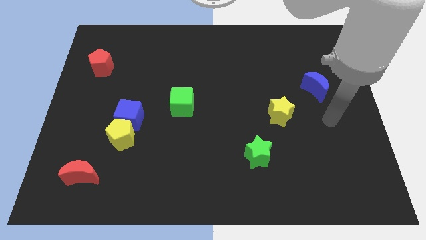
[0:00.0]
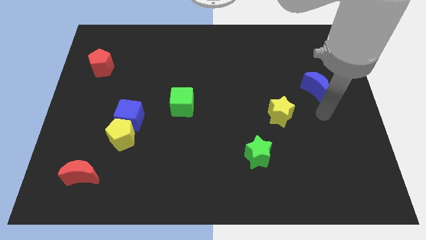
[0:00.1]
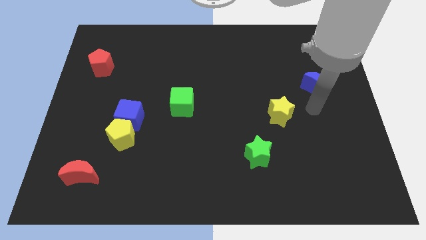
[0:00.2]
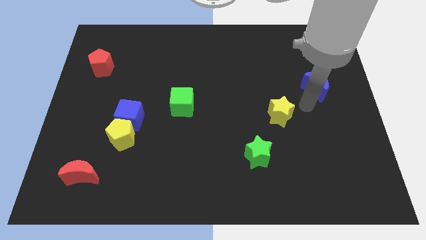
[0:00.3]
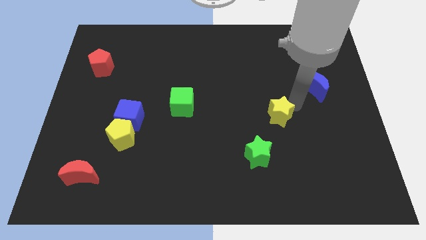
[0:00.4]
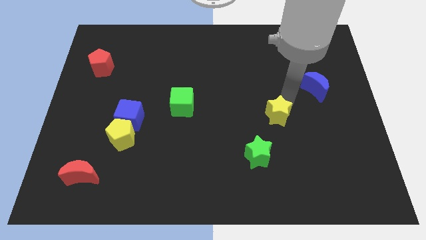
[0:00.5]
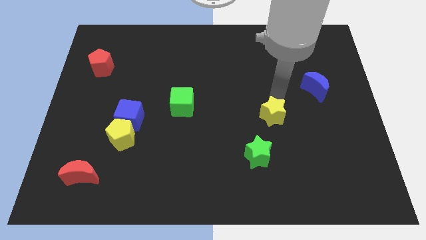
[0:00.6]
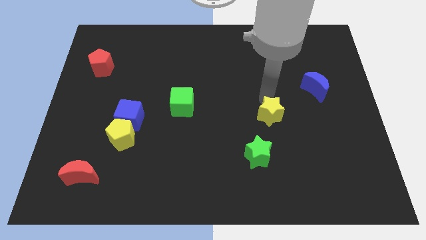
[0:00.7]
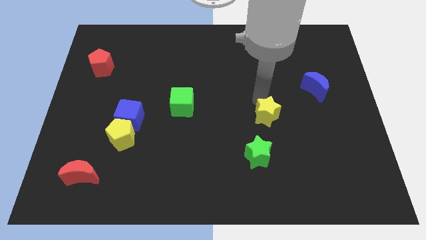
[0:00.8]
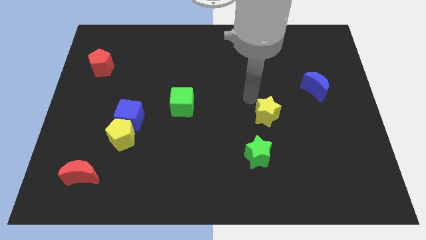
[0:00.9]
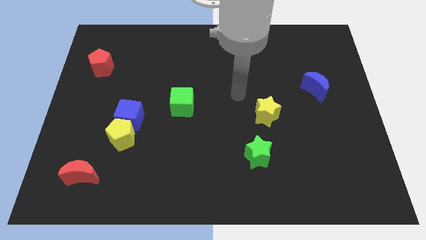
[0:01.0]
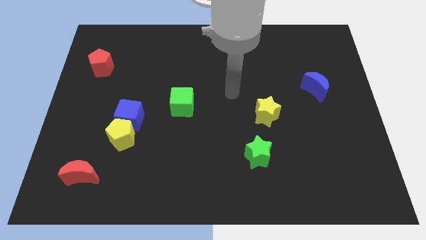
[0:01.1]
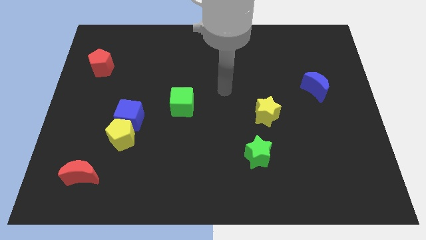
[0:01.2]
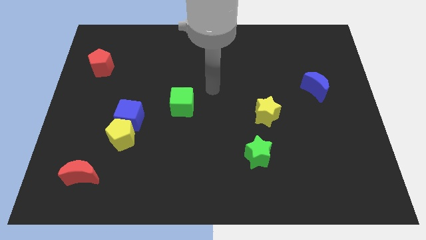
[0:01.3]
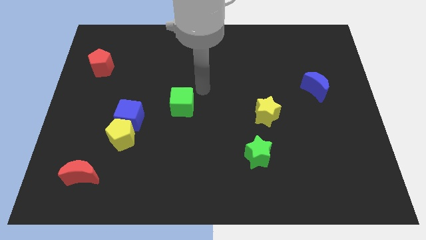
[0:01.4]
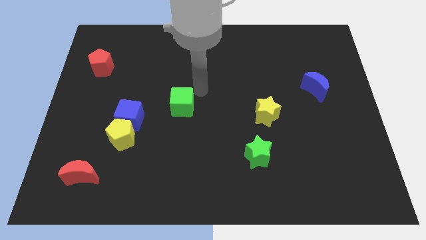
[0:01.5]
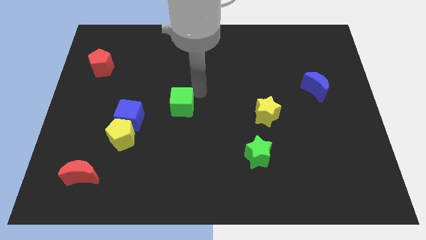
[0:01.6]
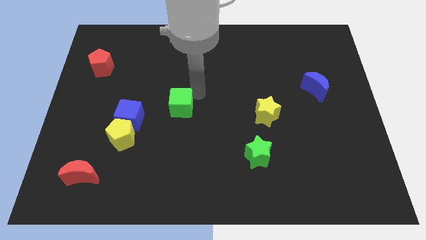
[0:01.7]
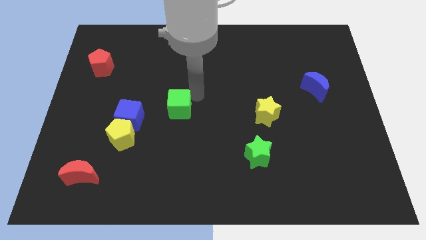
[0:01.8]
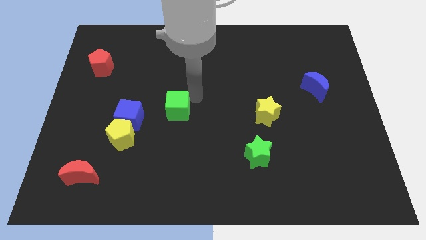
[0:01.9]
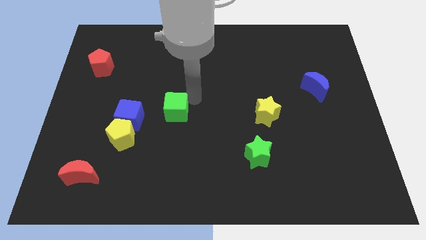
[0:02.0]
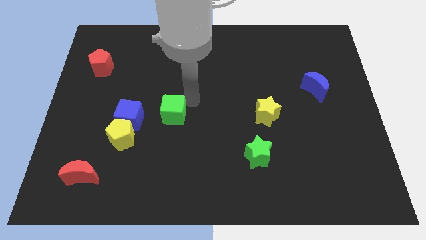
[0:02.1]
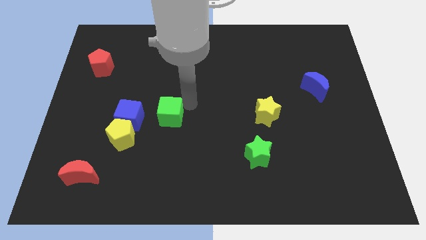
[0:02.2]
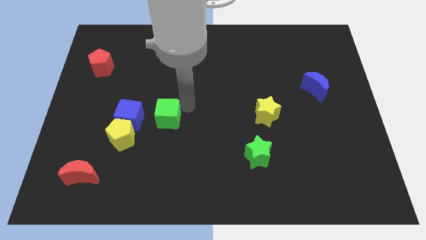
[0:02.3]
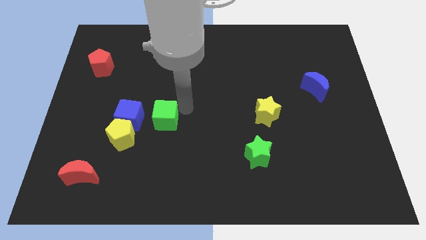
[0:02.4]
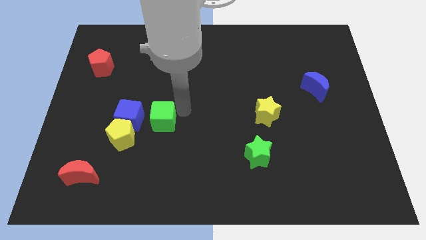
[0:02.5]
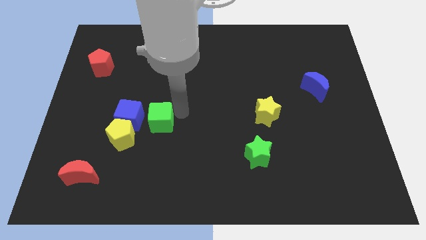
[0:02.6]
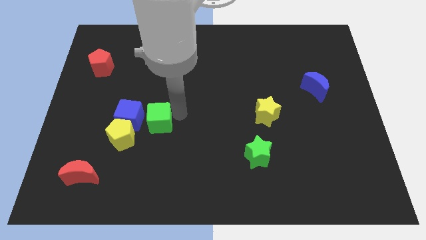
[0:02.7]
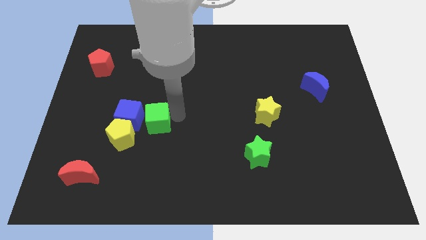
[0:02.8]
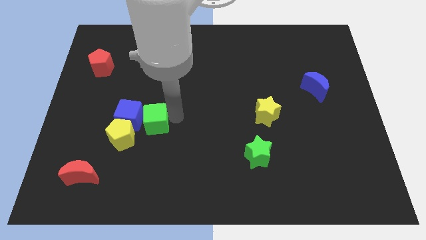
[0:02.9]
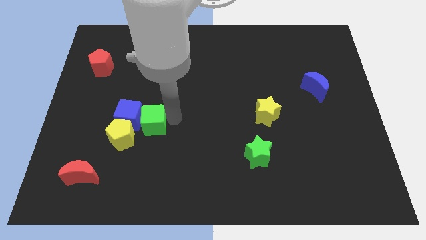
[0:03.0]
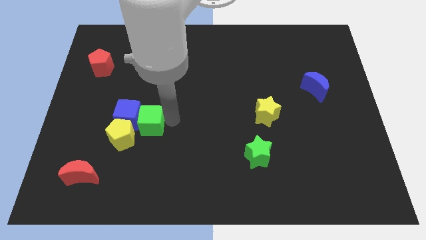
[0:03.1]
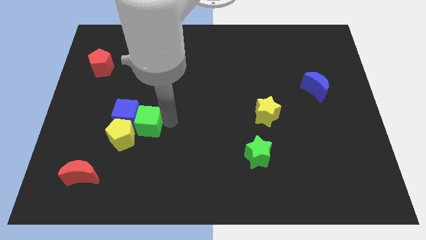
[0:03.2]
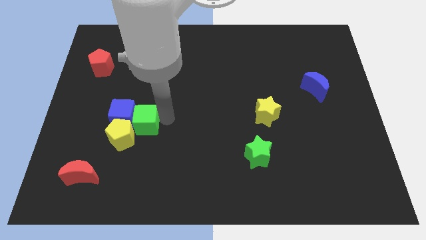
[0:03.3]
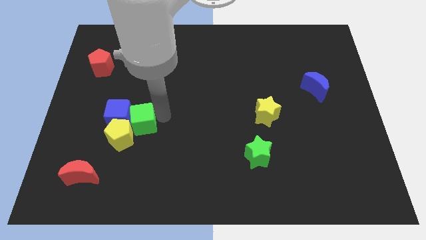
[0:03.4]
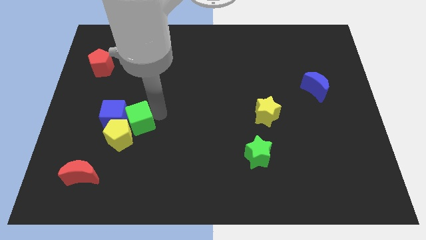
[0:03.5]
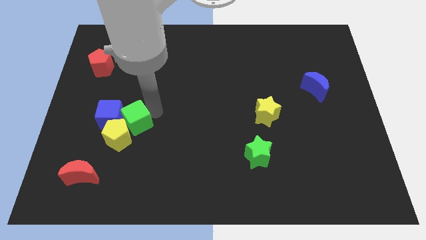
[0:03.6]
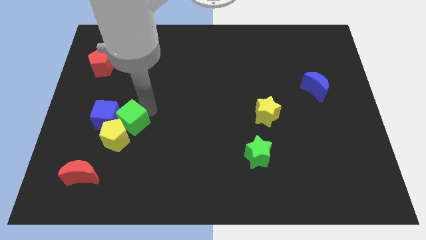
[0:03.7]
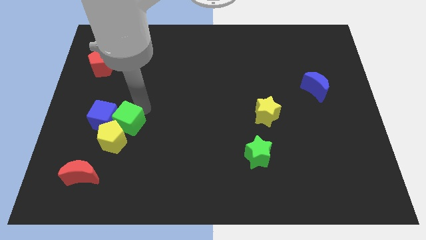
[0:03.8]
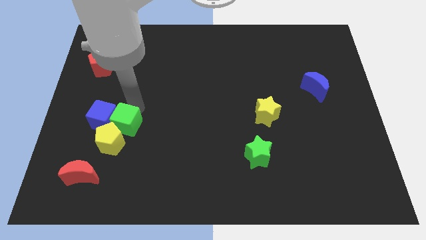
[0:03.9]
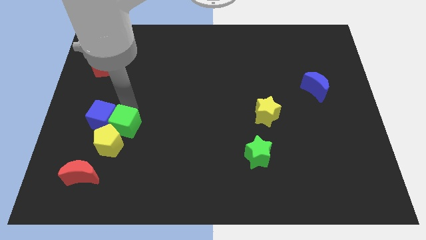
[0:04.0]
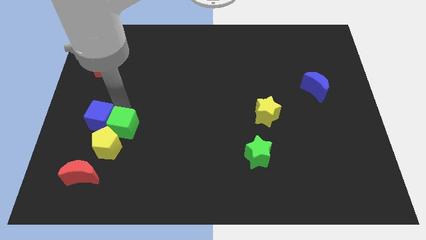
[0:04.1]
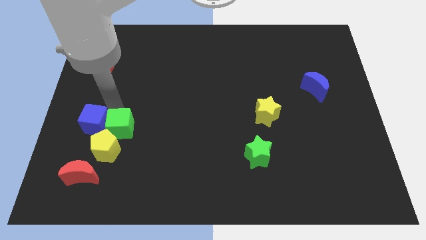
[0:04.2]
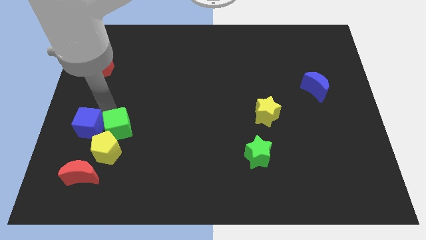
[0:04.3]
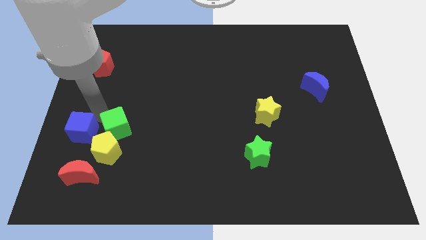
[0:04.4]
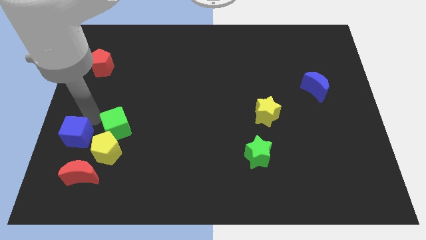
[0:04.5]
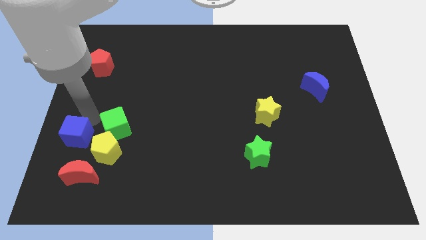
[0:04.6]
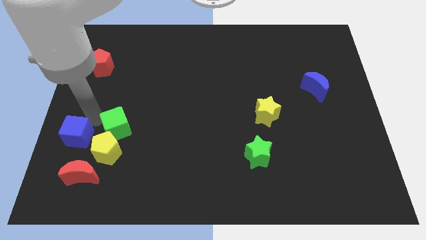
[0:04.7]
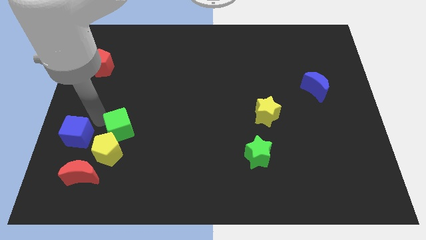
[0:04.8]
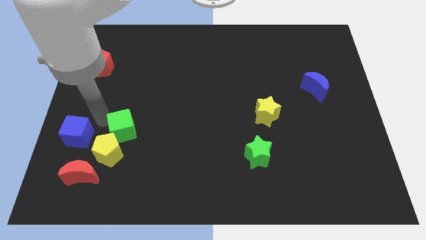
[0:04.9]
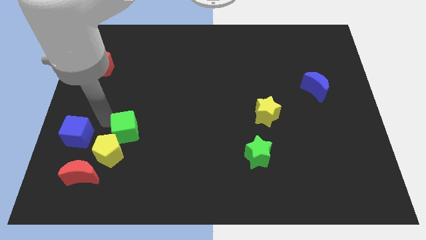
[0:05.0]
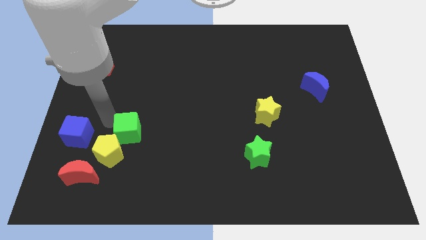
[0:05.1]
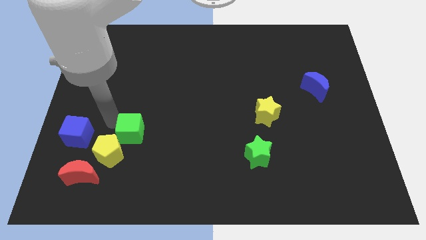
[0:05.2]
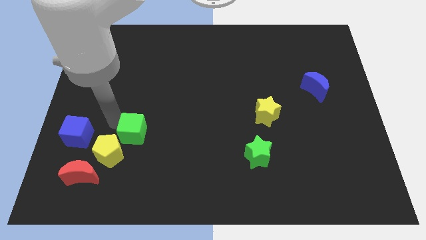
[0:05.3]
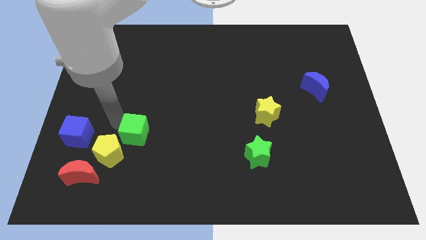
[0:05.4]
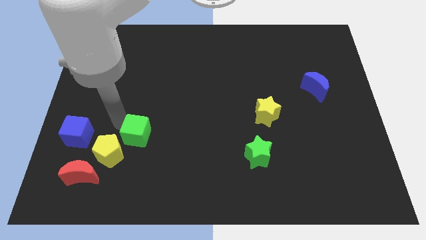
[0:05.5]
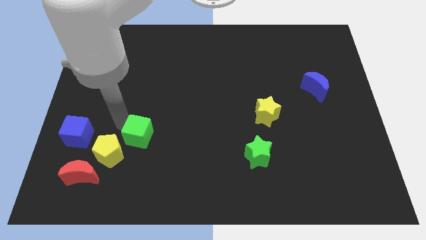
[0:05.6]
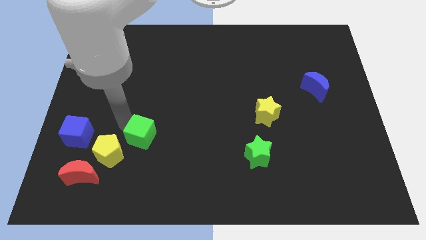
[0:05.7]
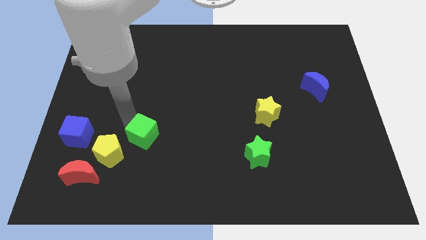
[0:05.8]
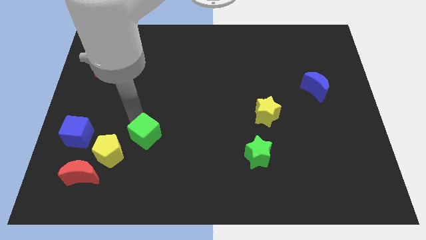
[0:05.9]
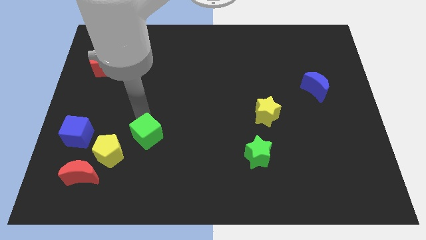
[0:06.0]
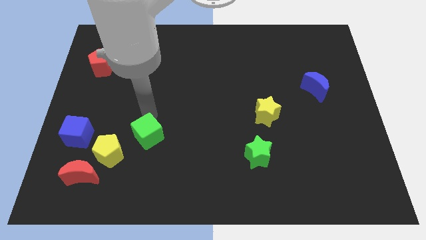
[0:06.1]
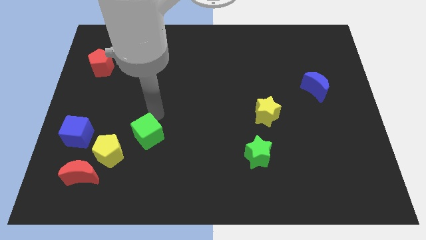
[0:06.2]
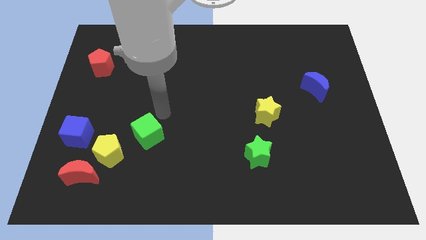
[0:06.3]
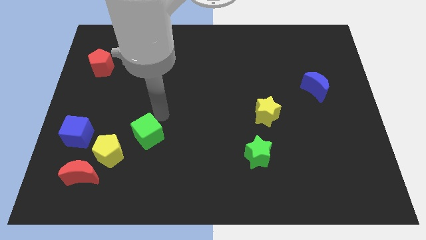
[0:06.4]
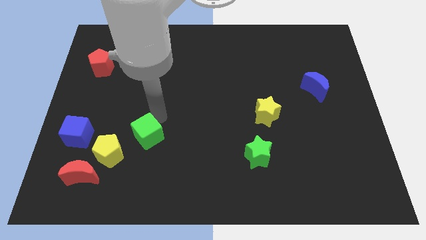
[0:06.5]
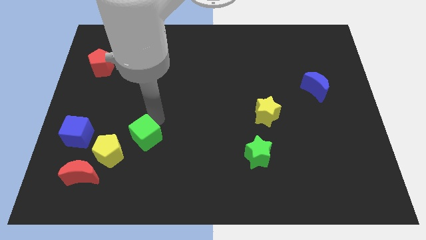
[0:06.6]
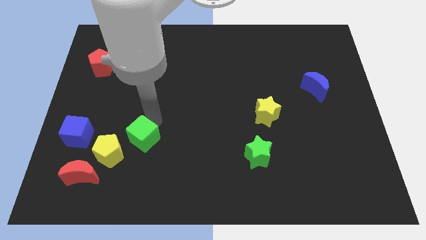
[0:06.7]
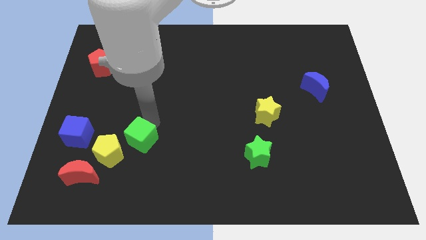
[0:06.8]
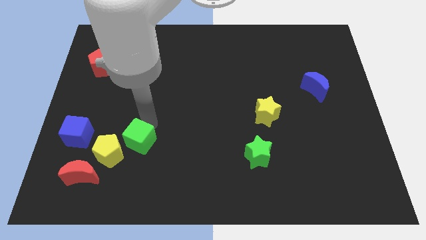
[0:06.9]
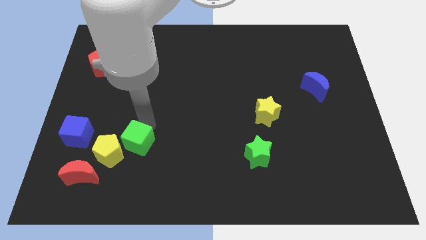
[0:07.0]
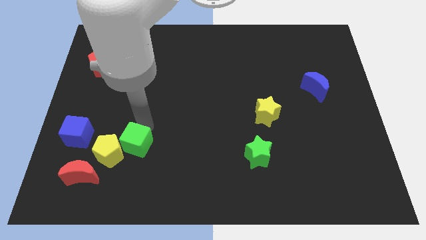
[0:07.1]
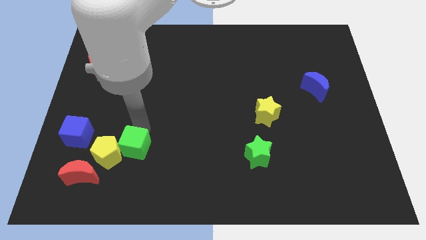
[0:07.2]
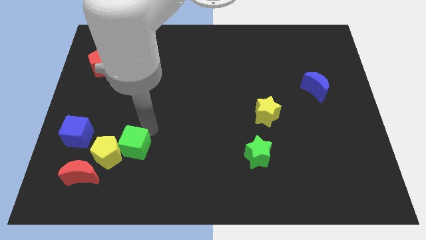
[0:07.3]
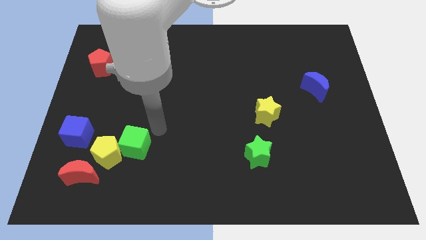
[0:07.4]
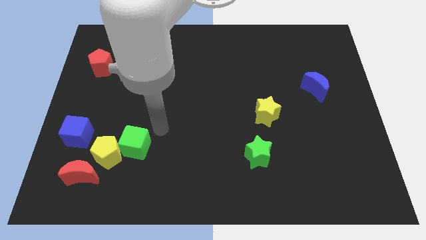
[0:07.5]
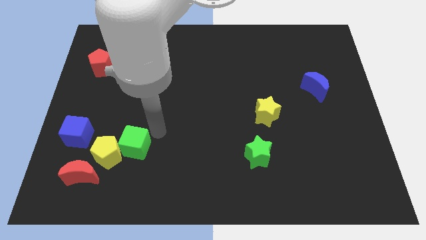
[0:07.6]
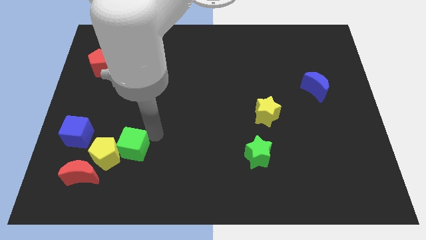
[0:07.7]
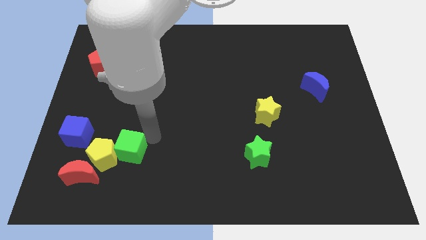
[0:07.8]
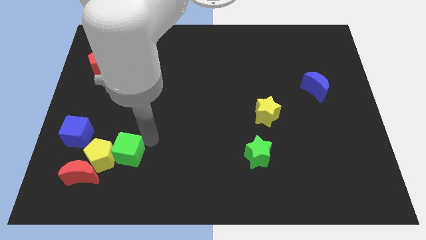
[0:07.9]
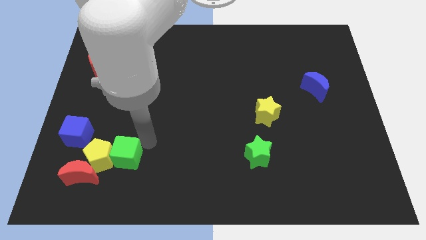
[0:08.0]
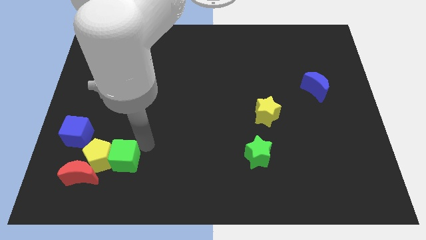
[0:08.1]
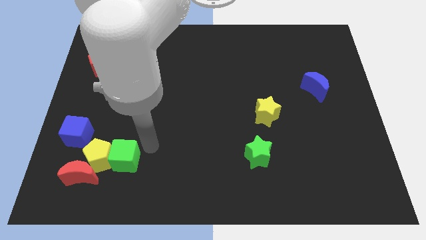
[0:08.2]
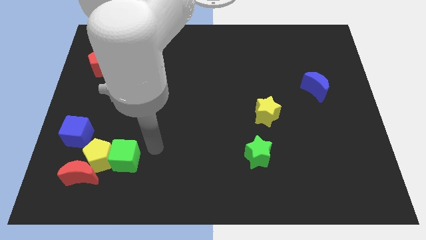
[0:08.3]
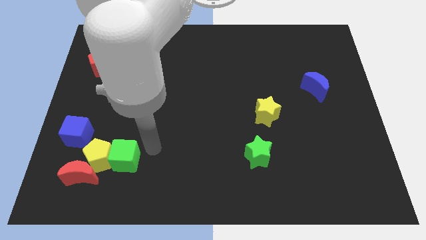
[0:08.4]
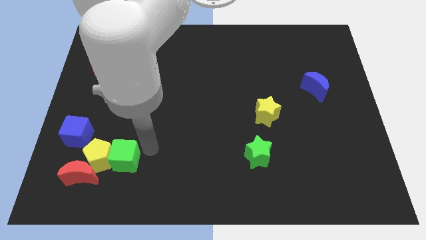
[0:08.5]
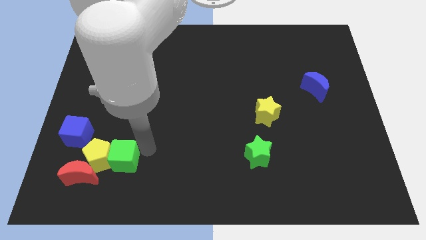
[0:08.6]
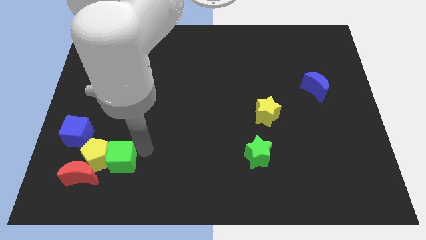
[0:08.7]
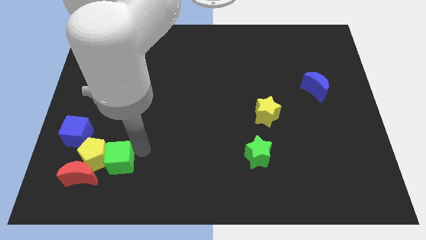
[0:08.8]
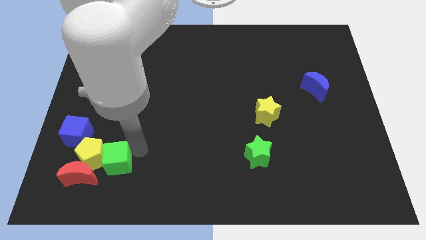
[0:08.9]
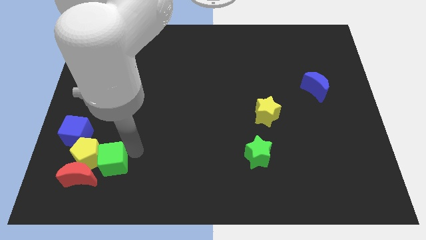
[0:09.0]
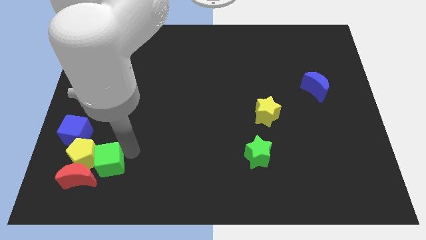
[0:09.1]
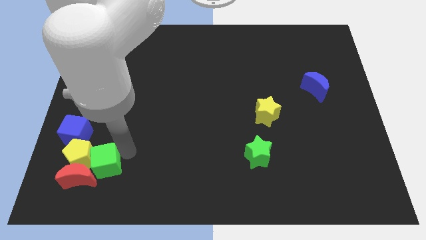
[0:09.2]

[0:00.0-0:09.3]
put the green cube close to the red moon
